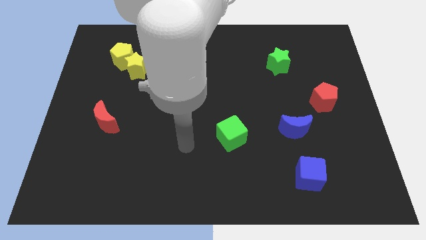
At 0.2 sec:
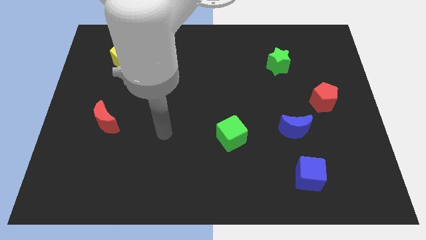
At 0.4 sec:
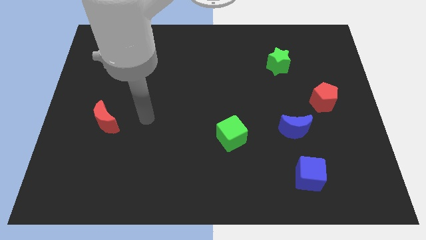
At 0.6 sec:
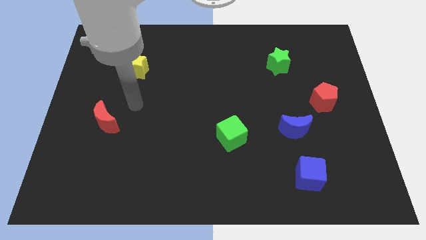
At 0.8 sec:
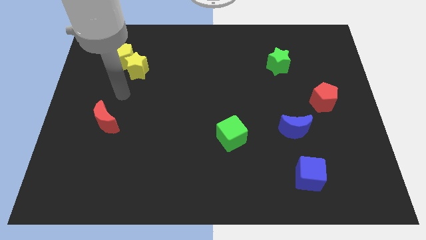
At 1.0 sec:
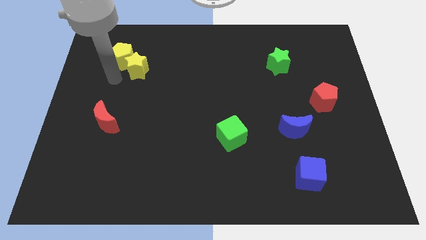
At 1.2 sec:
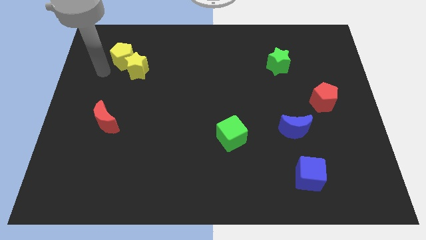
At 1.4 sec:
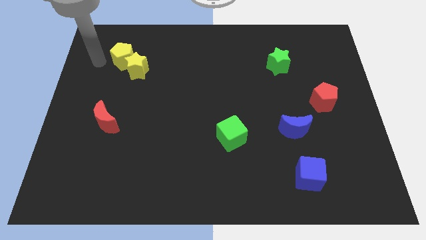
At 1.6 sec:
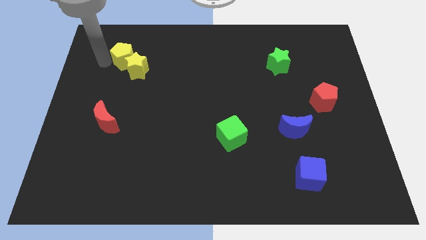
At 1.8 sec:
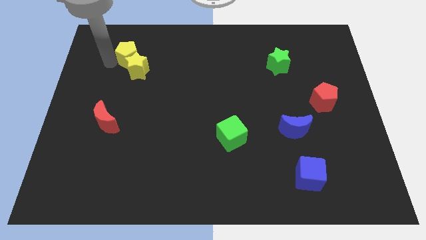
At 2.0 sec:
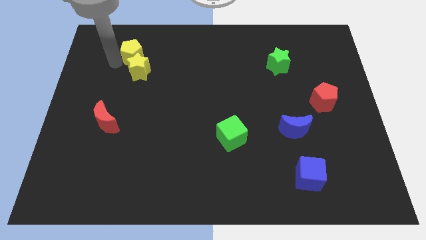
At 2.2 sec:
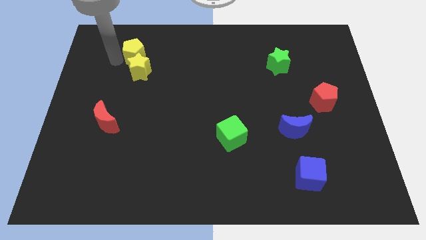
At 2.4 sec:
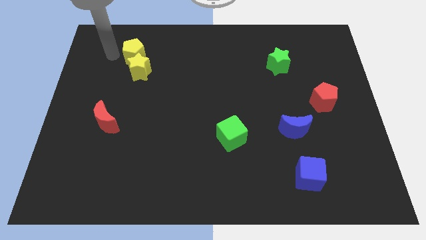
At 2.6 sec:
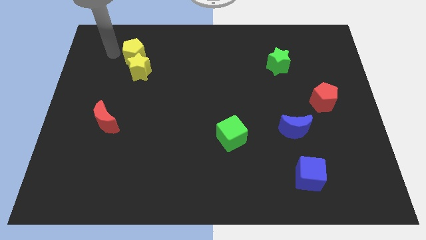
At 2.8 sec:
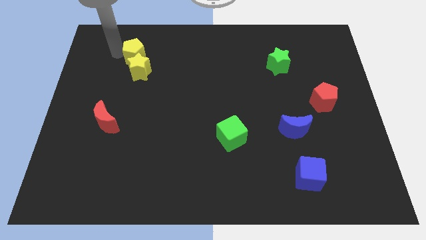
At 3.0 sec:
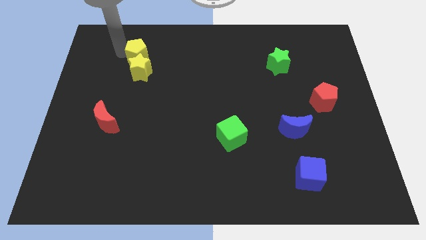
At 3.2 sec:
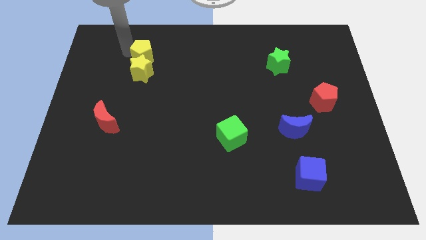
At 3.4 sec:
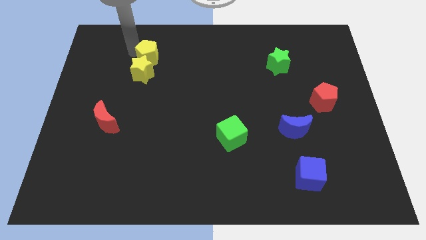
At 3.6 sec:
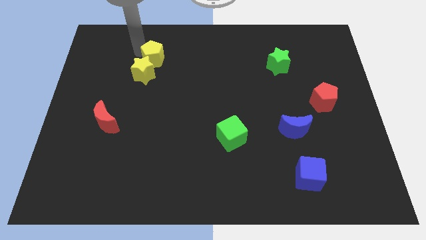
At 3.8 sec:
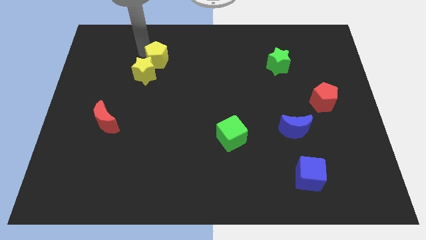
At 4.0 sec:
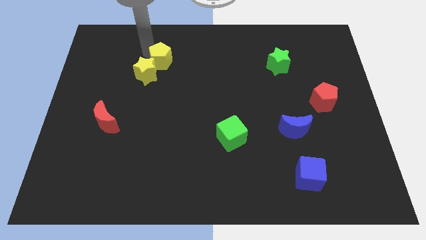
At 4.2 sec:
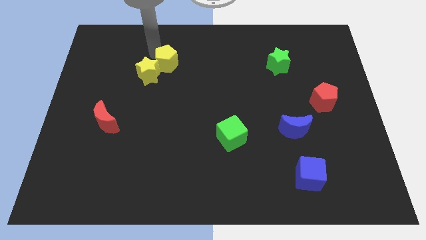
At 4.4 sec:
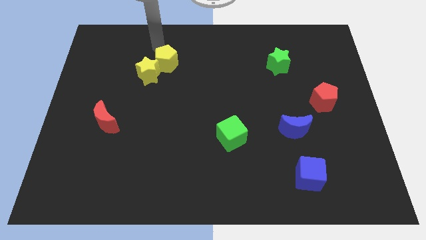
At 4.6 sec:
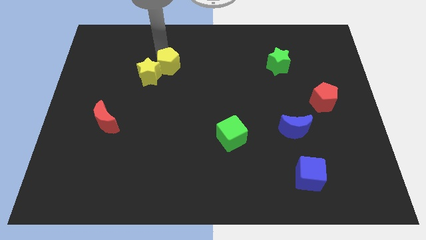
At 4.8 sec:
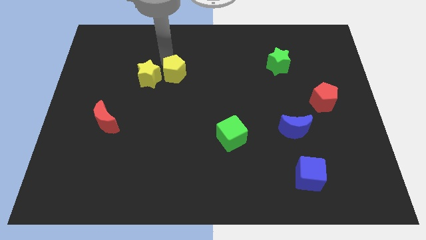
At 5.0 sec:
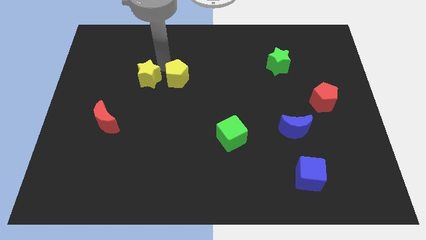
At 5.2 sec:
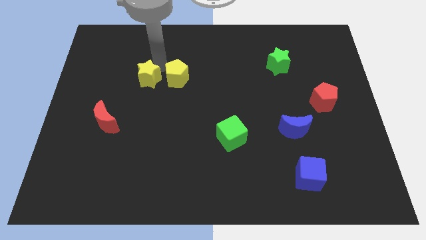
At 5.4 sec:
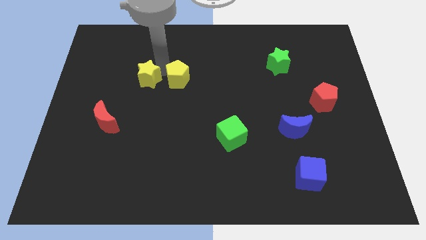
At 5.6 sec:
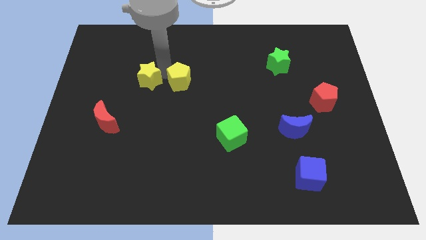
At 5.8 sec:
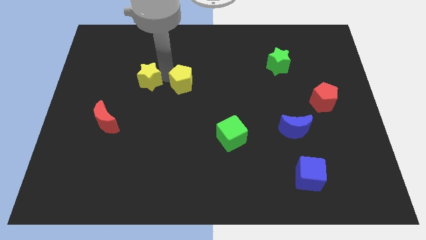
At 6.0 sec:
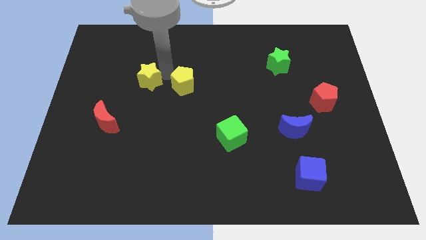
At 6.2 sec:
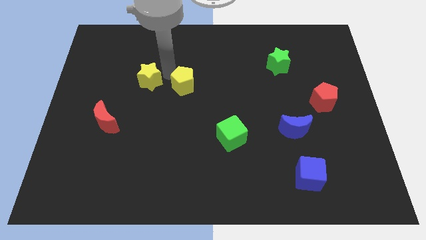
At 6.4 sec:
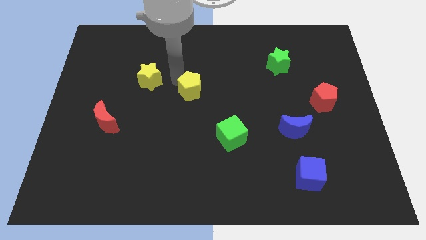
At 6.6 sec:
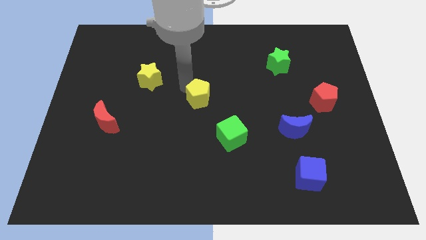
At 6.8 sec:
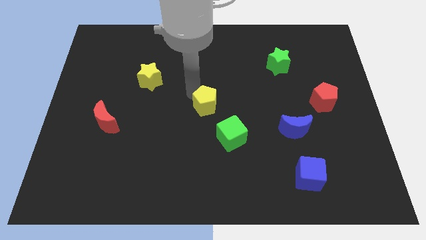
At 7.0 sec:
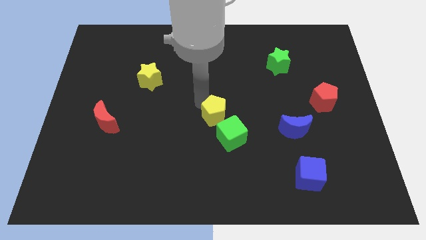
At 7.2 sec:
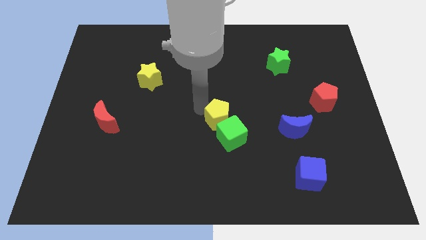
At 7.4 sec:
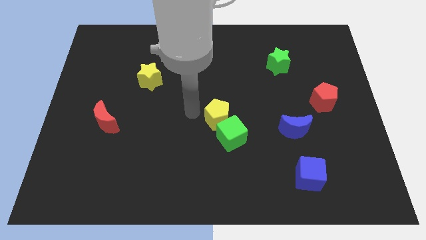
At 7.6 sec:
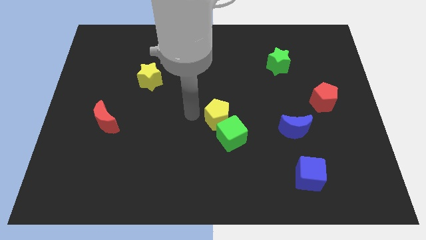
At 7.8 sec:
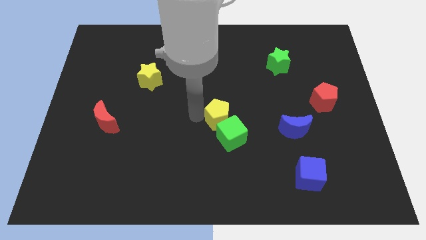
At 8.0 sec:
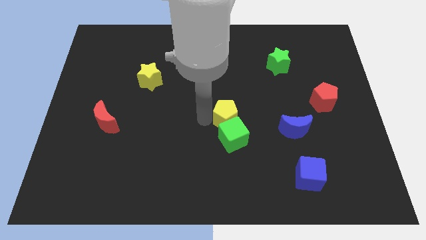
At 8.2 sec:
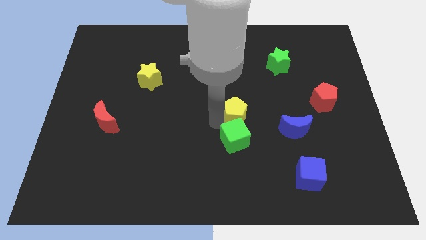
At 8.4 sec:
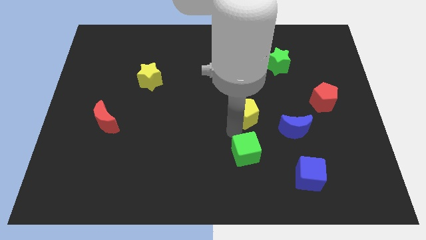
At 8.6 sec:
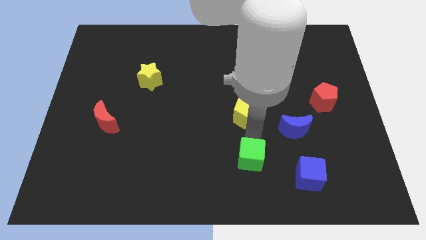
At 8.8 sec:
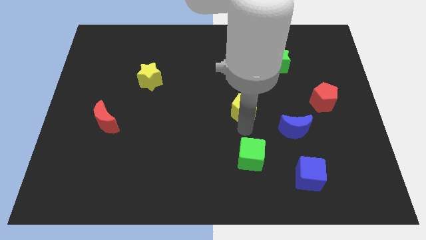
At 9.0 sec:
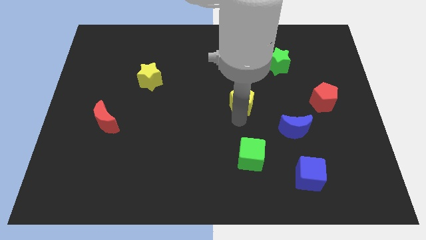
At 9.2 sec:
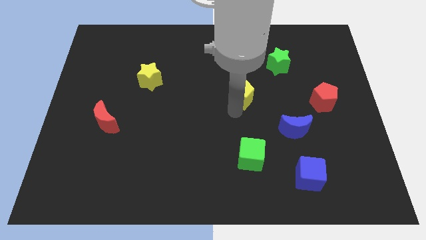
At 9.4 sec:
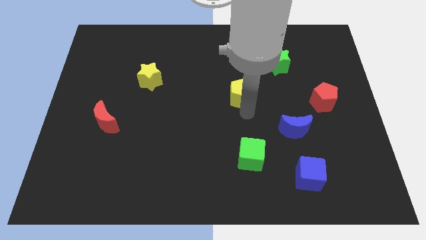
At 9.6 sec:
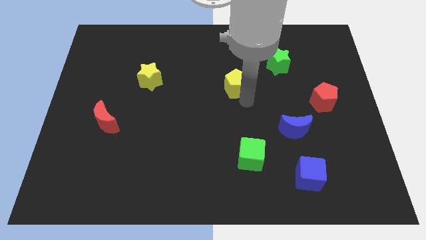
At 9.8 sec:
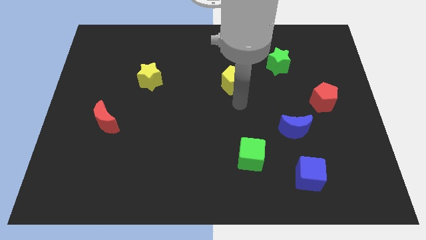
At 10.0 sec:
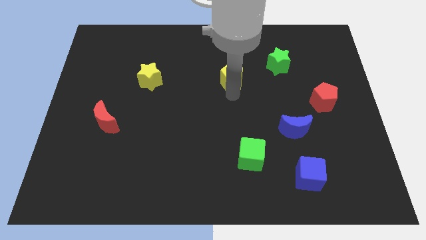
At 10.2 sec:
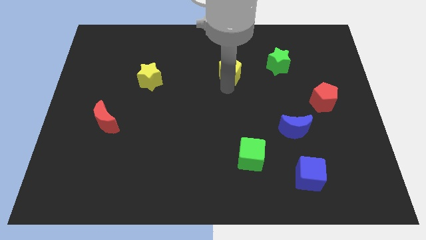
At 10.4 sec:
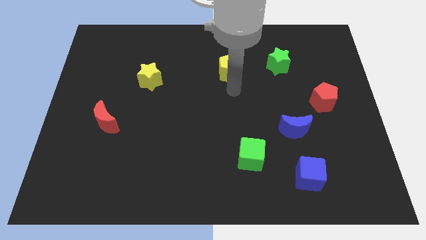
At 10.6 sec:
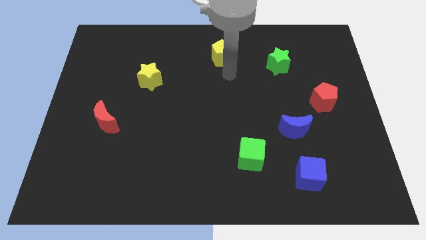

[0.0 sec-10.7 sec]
put the yellow pentagon to the top

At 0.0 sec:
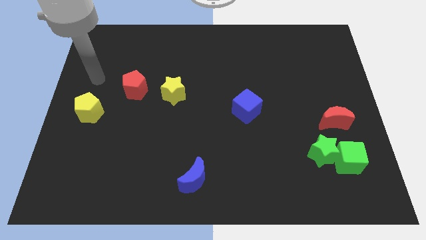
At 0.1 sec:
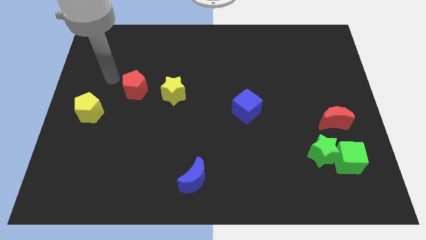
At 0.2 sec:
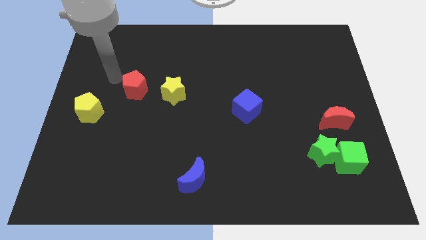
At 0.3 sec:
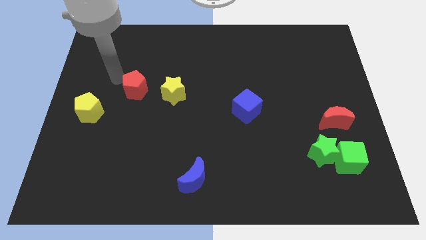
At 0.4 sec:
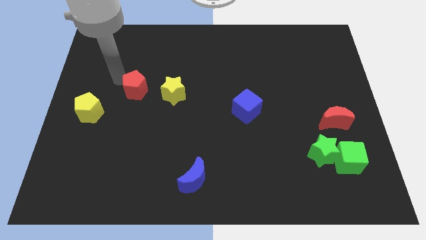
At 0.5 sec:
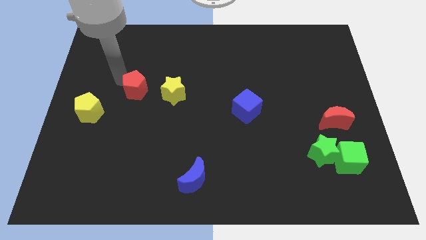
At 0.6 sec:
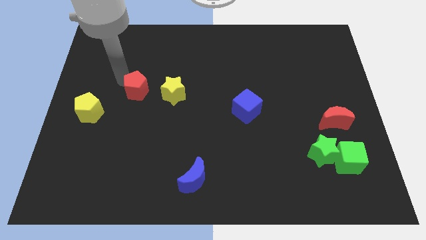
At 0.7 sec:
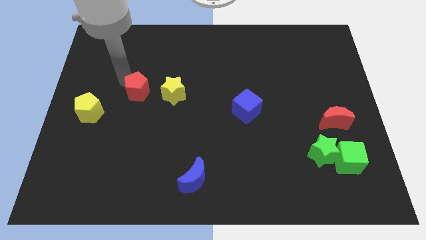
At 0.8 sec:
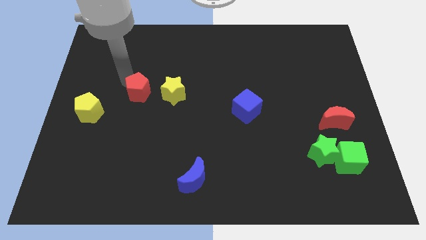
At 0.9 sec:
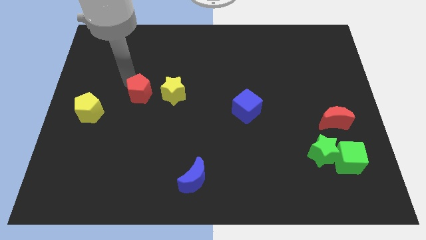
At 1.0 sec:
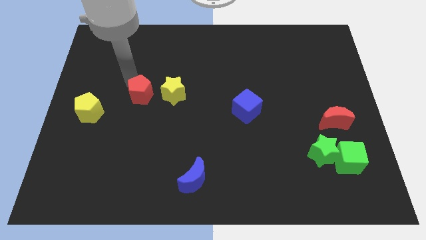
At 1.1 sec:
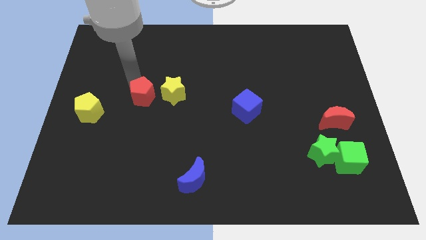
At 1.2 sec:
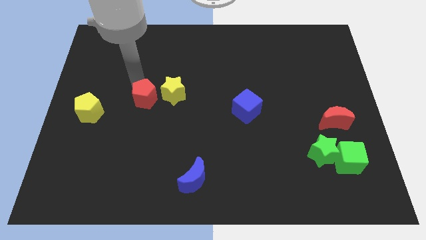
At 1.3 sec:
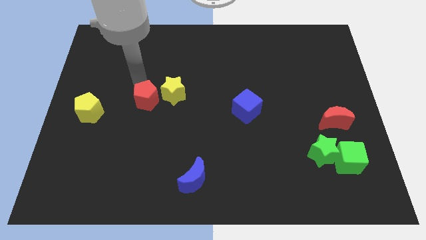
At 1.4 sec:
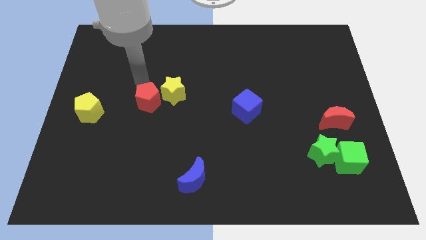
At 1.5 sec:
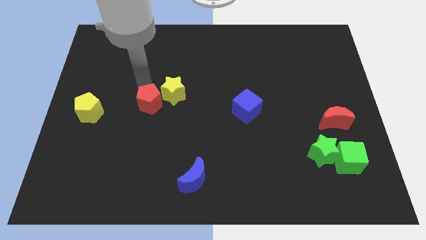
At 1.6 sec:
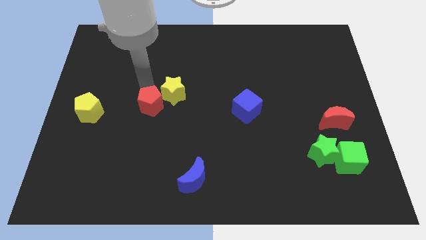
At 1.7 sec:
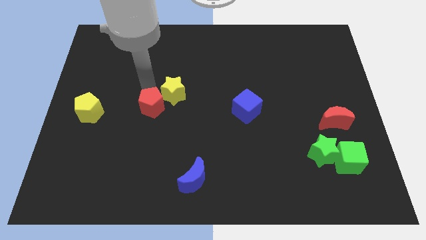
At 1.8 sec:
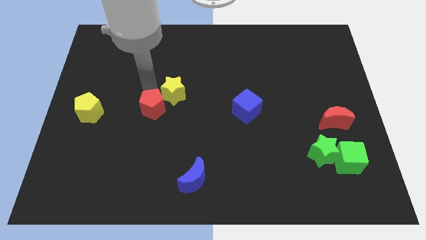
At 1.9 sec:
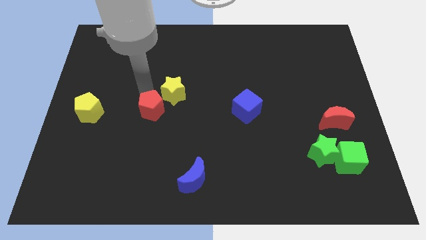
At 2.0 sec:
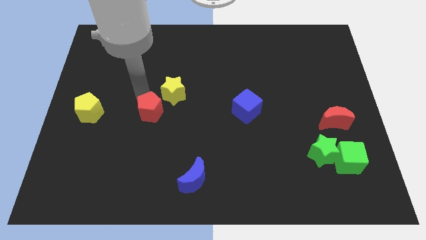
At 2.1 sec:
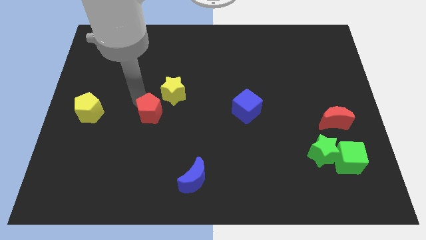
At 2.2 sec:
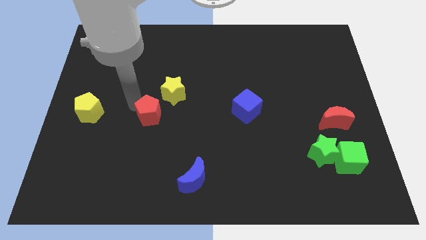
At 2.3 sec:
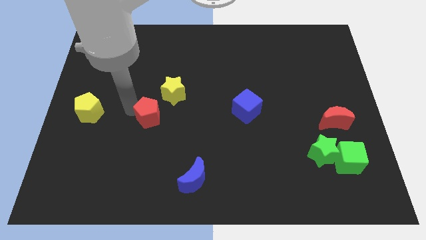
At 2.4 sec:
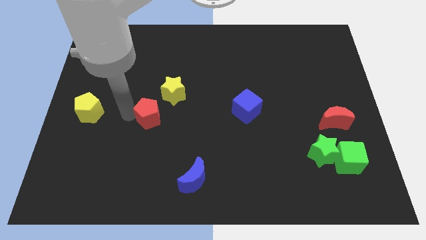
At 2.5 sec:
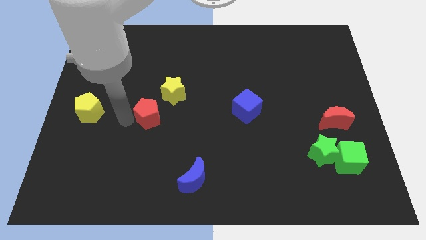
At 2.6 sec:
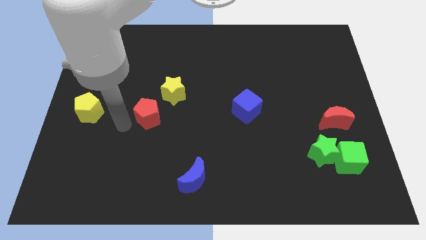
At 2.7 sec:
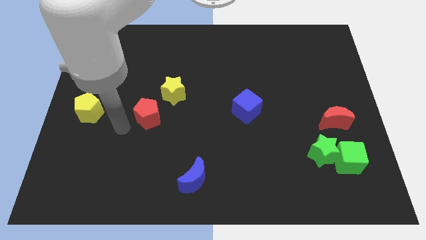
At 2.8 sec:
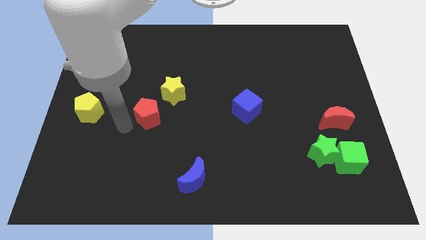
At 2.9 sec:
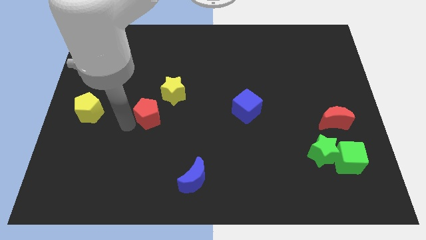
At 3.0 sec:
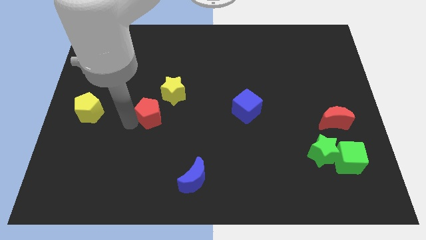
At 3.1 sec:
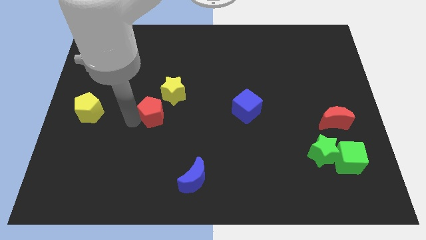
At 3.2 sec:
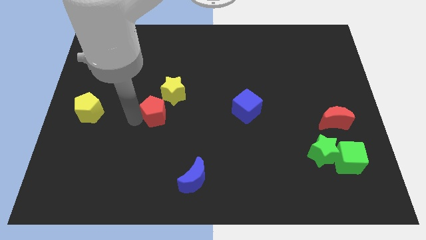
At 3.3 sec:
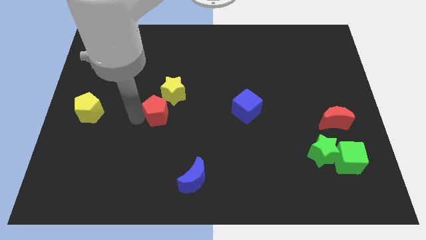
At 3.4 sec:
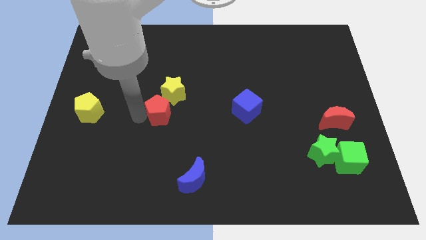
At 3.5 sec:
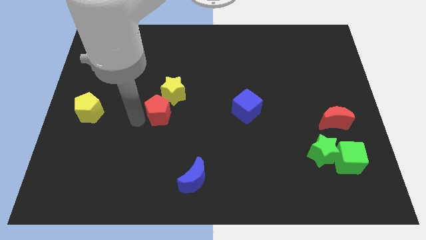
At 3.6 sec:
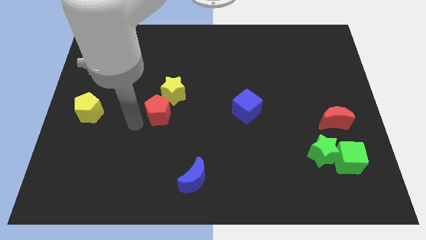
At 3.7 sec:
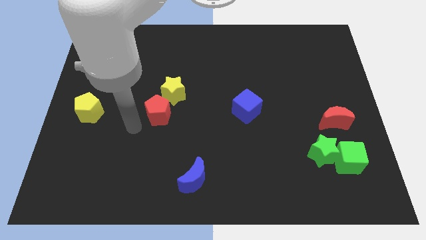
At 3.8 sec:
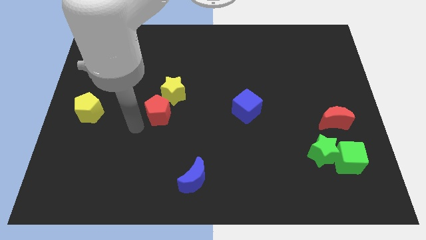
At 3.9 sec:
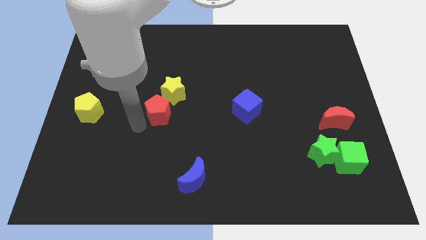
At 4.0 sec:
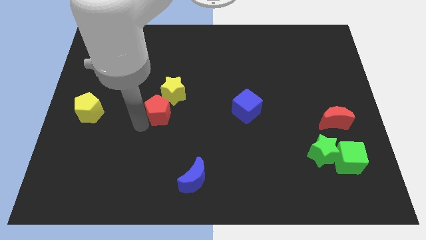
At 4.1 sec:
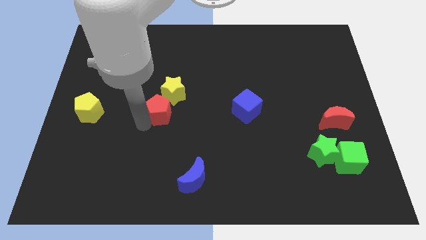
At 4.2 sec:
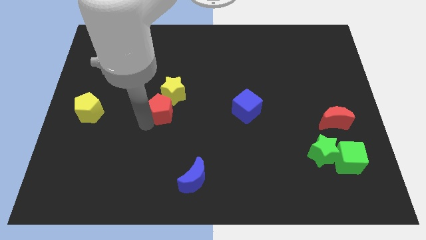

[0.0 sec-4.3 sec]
put the red pentagon to the center
